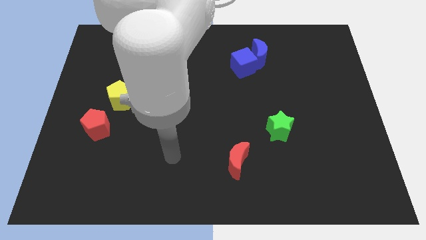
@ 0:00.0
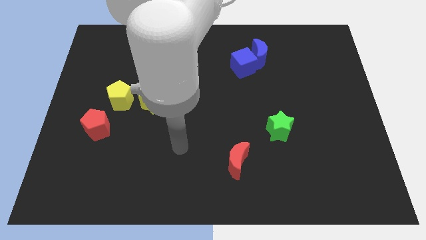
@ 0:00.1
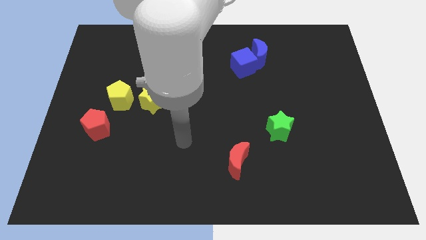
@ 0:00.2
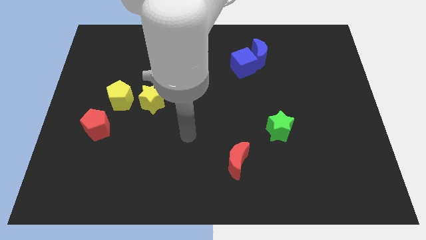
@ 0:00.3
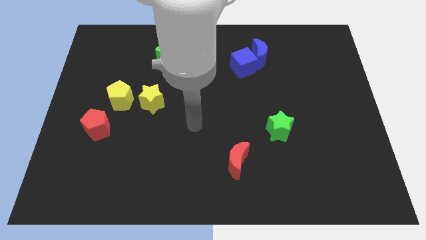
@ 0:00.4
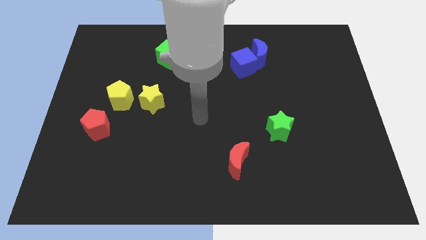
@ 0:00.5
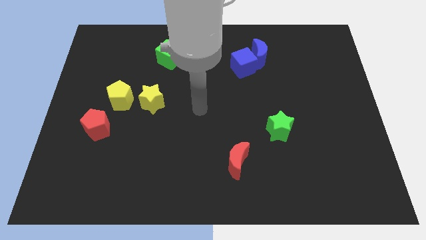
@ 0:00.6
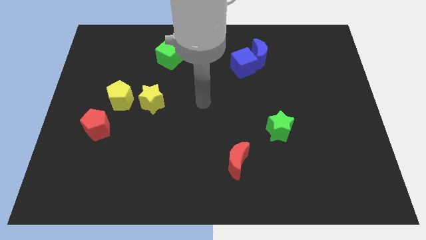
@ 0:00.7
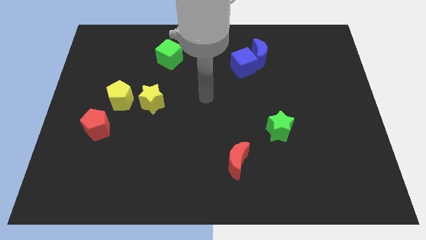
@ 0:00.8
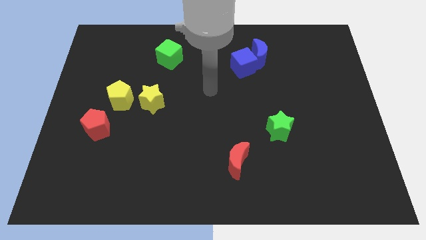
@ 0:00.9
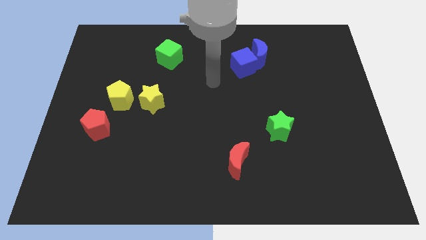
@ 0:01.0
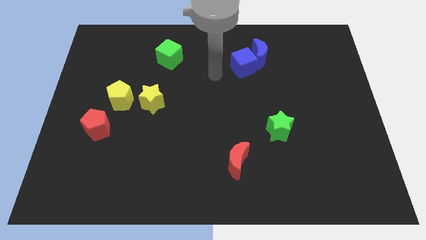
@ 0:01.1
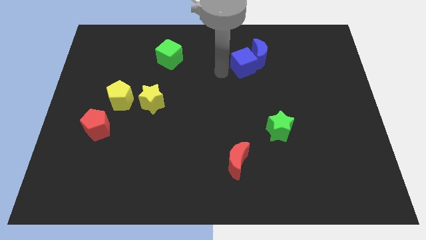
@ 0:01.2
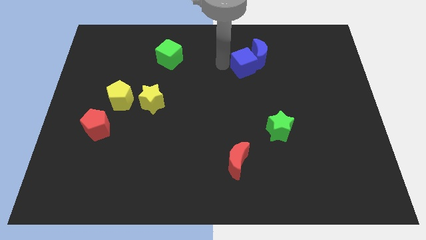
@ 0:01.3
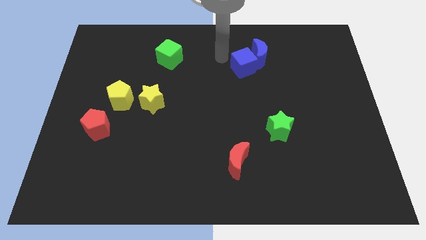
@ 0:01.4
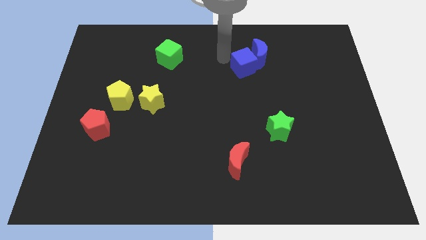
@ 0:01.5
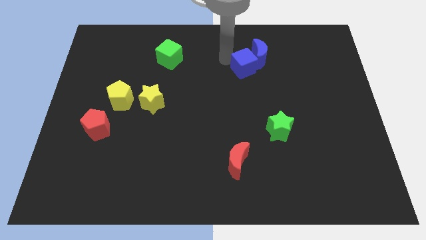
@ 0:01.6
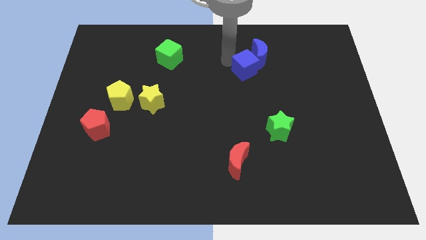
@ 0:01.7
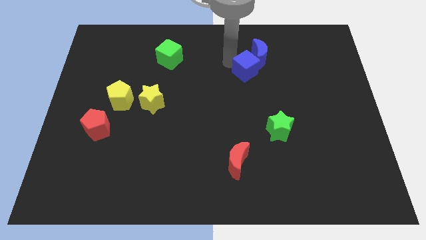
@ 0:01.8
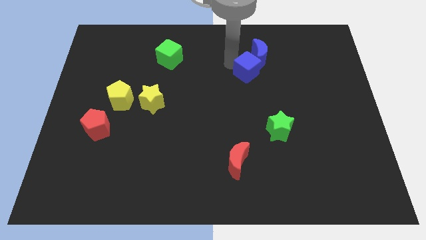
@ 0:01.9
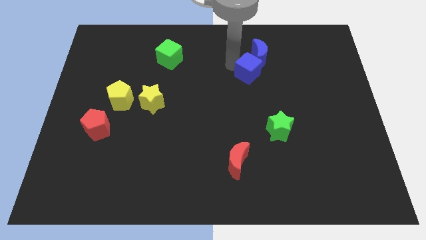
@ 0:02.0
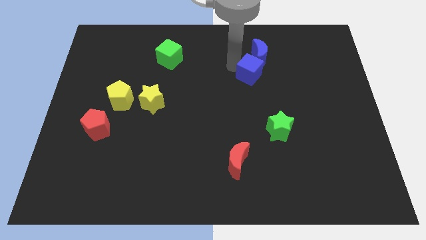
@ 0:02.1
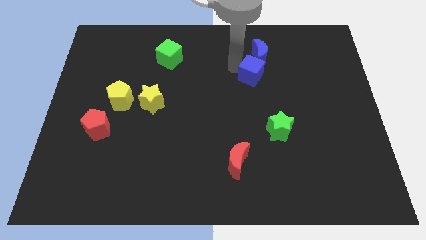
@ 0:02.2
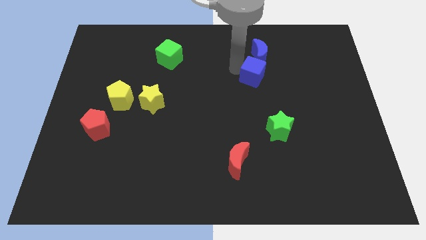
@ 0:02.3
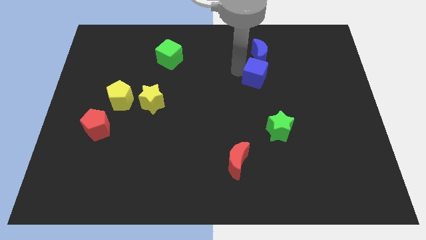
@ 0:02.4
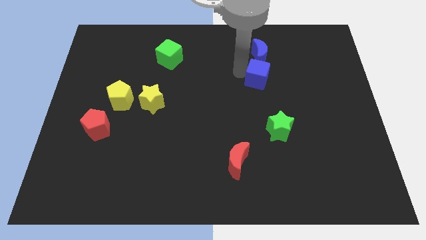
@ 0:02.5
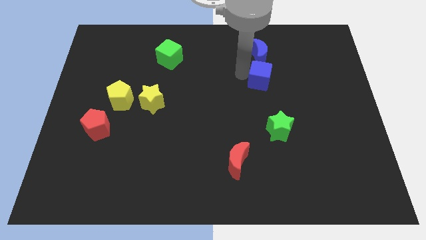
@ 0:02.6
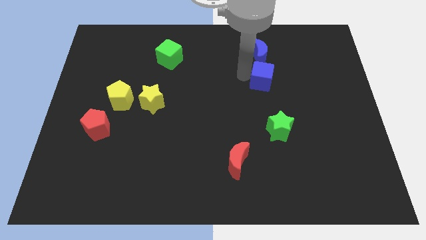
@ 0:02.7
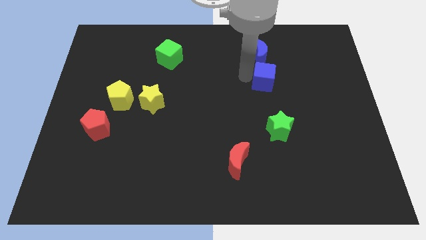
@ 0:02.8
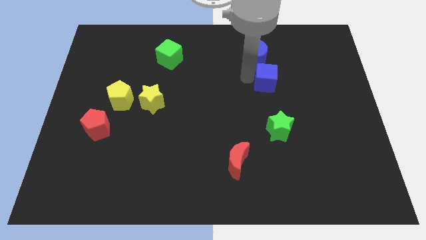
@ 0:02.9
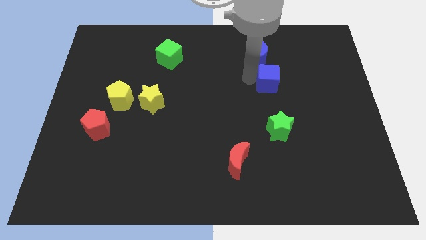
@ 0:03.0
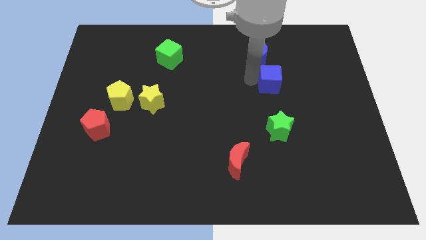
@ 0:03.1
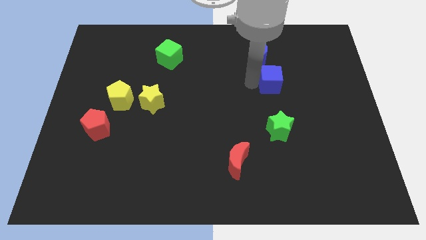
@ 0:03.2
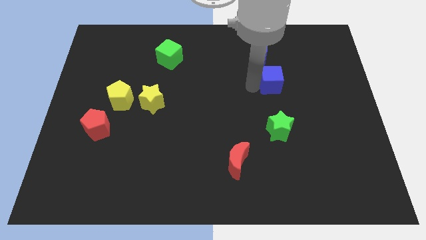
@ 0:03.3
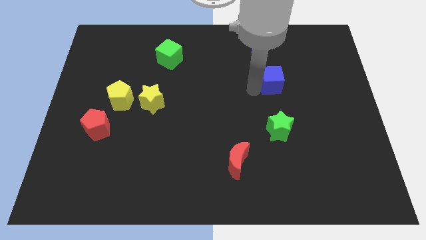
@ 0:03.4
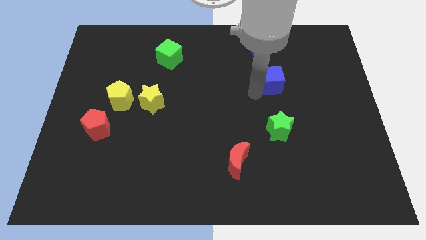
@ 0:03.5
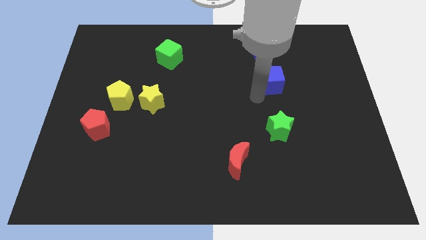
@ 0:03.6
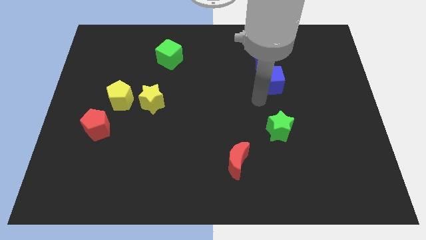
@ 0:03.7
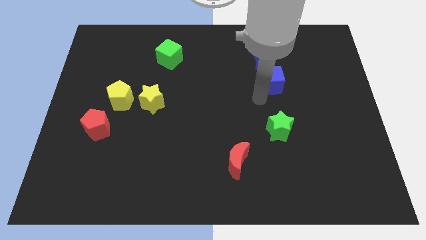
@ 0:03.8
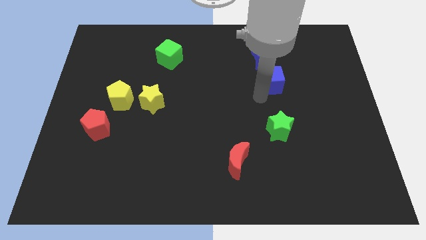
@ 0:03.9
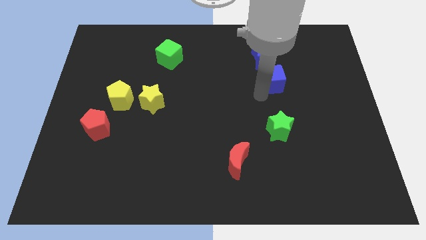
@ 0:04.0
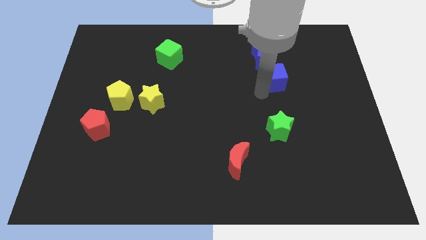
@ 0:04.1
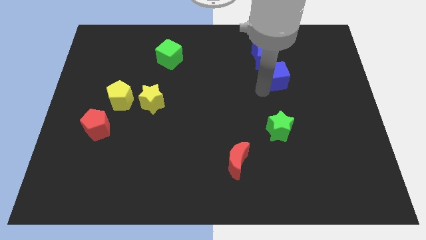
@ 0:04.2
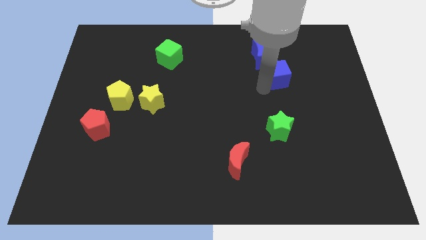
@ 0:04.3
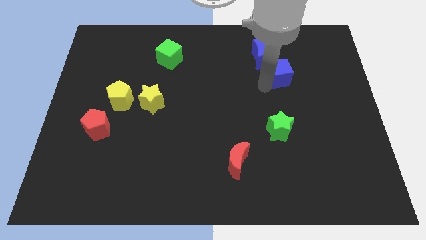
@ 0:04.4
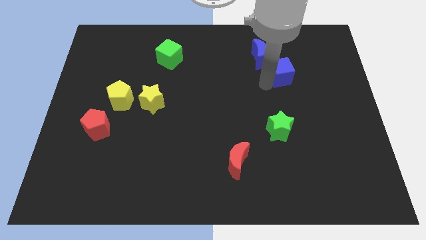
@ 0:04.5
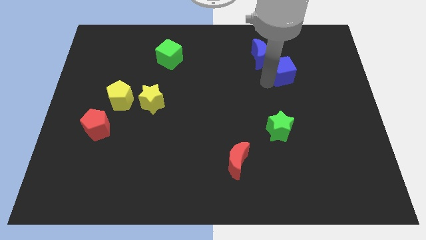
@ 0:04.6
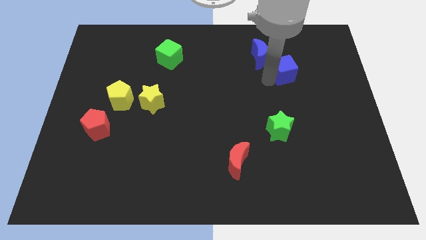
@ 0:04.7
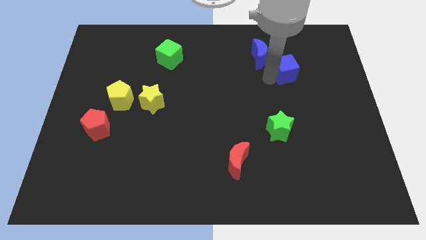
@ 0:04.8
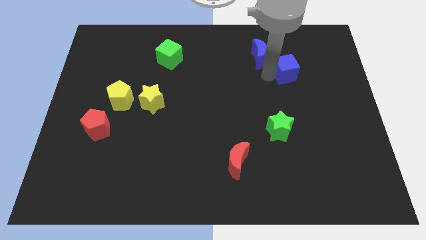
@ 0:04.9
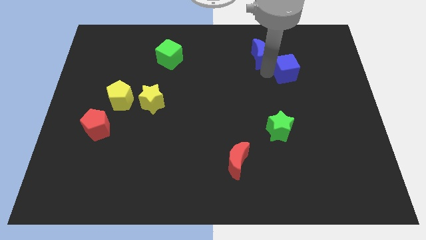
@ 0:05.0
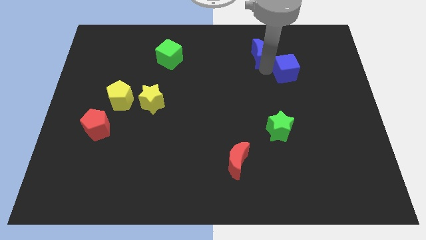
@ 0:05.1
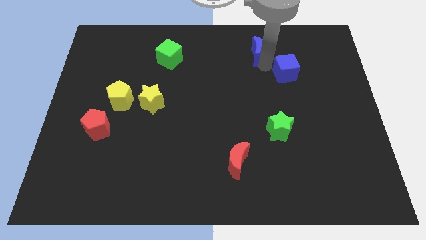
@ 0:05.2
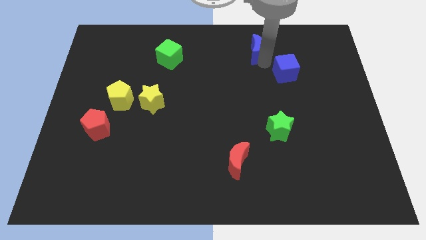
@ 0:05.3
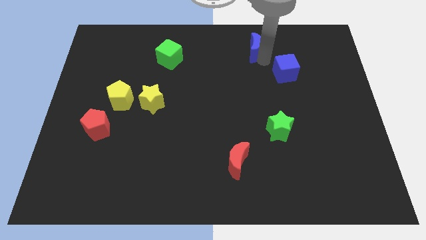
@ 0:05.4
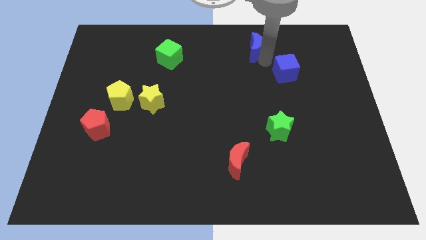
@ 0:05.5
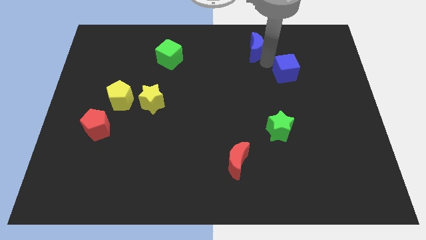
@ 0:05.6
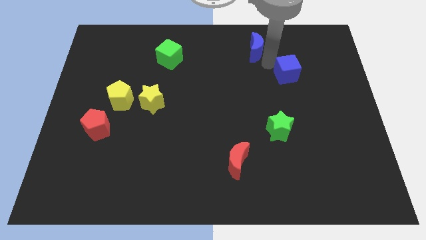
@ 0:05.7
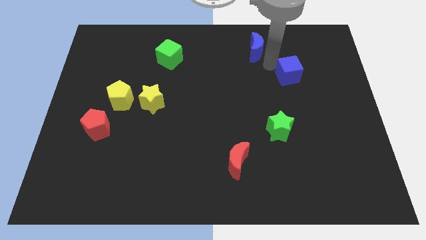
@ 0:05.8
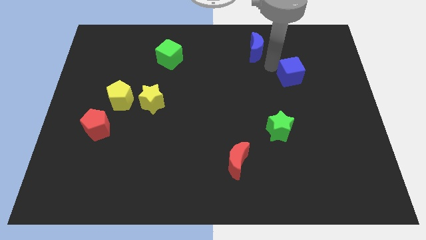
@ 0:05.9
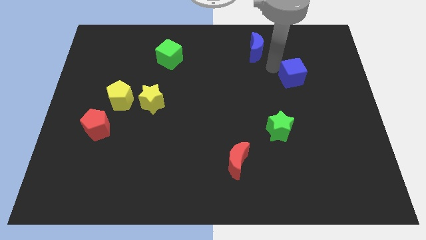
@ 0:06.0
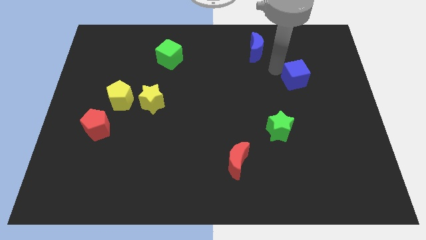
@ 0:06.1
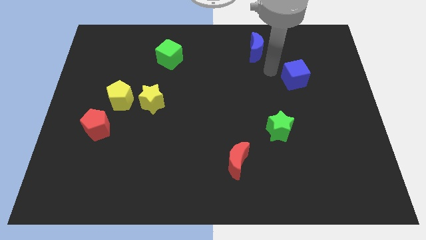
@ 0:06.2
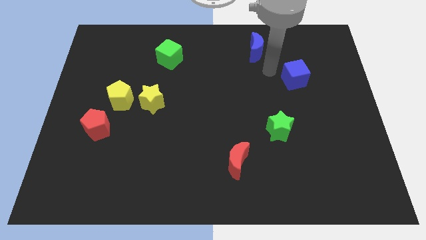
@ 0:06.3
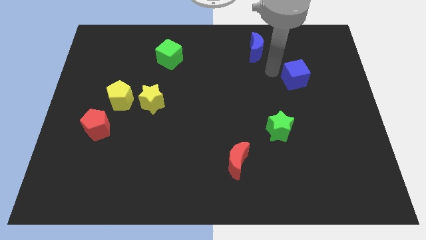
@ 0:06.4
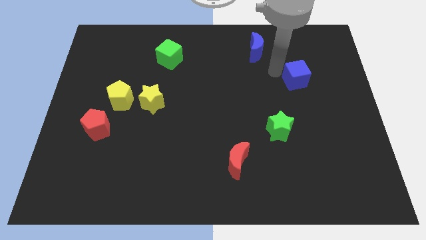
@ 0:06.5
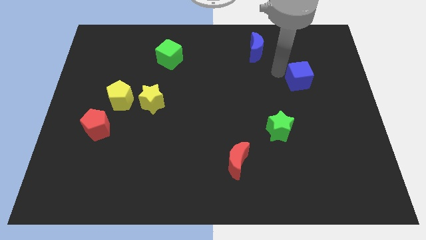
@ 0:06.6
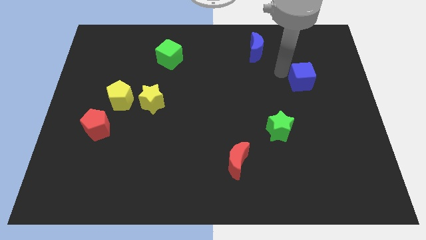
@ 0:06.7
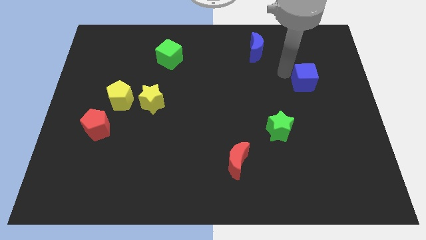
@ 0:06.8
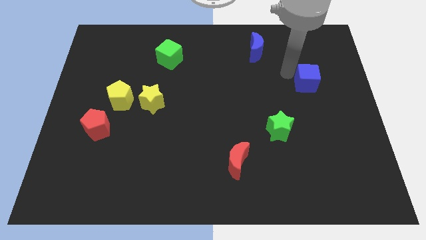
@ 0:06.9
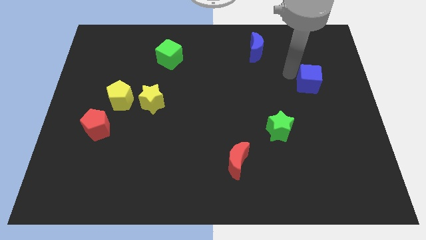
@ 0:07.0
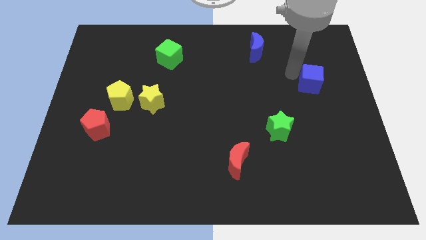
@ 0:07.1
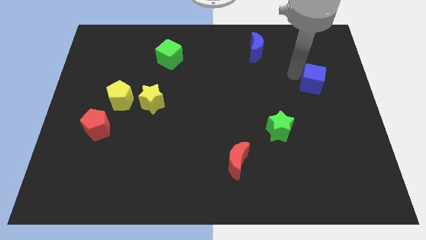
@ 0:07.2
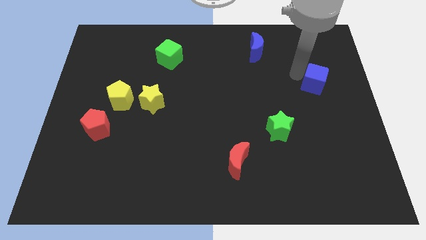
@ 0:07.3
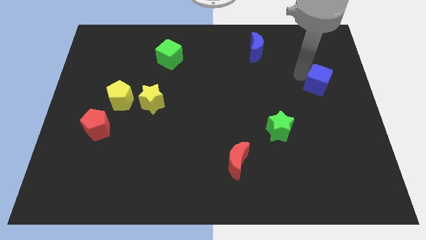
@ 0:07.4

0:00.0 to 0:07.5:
put the blue cube to the right side
